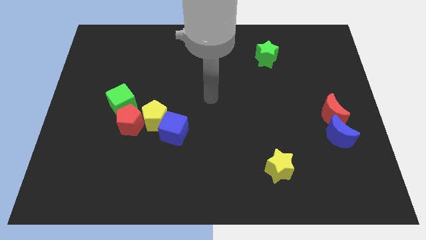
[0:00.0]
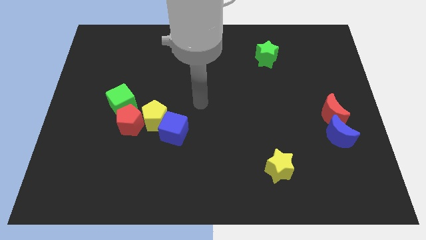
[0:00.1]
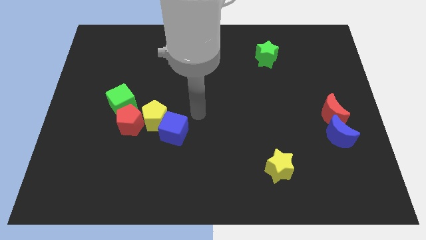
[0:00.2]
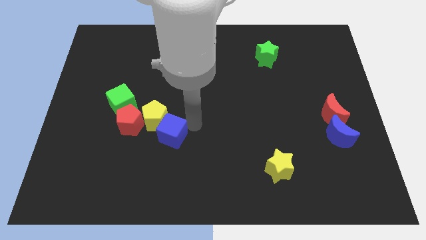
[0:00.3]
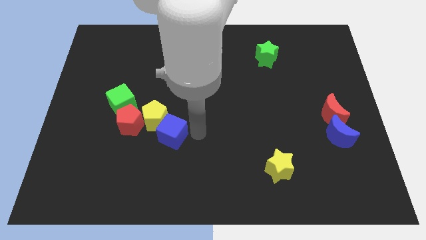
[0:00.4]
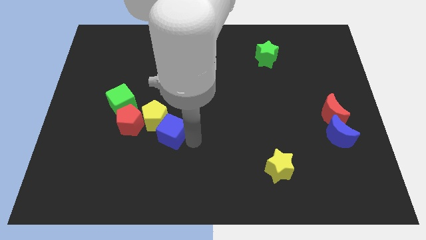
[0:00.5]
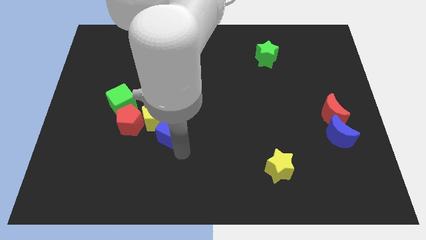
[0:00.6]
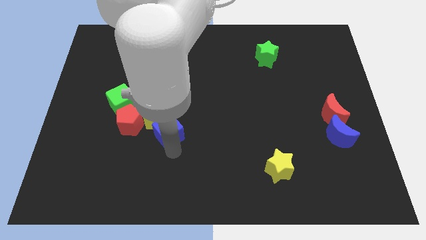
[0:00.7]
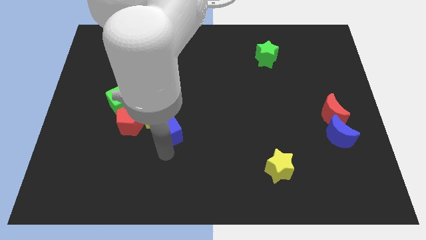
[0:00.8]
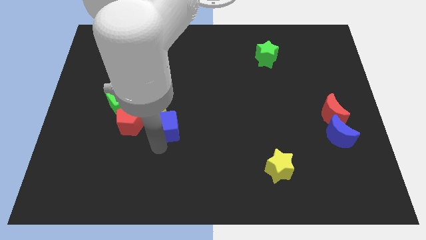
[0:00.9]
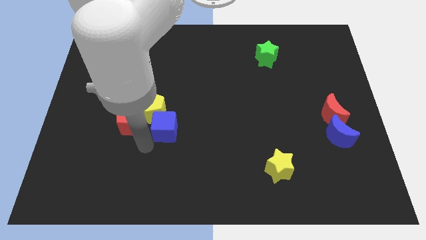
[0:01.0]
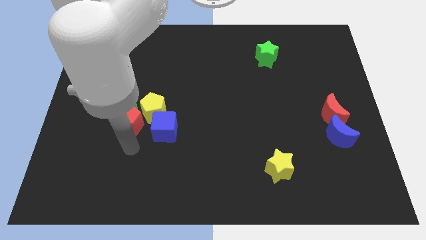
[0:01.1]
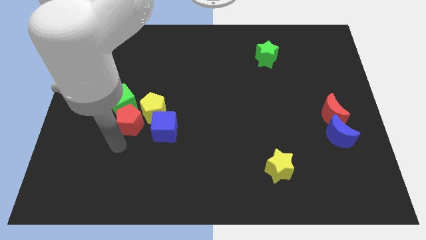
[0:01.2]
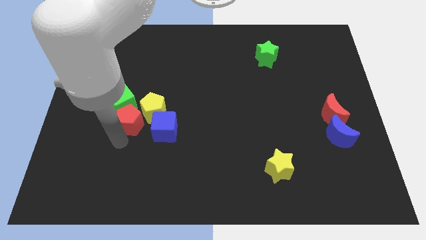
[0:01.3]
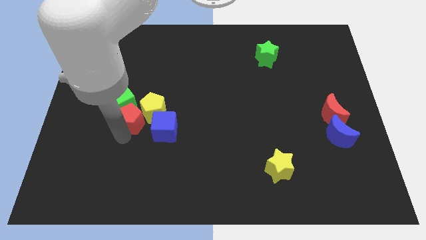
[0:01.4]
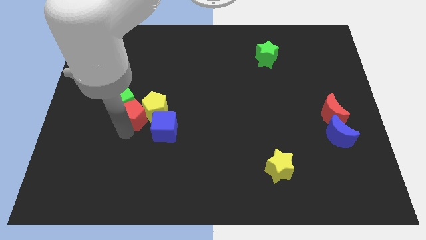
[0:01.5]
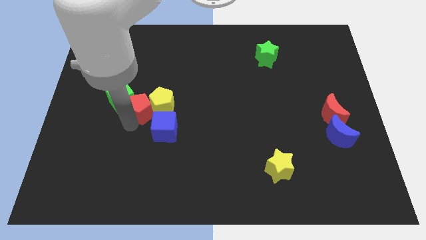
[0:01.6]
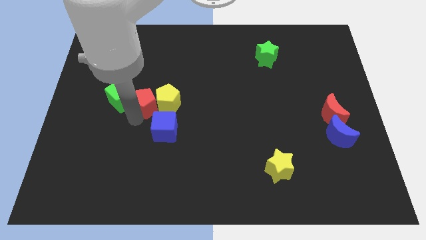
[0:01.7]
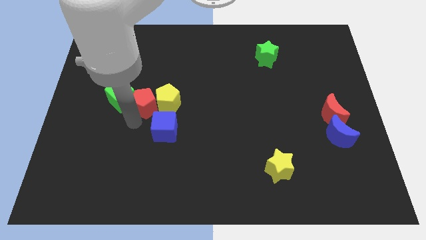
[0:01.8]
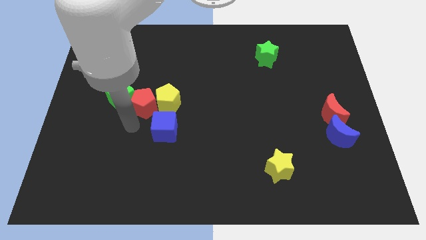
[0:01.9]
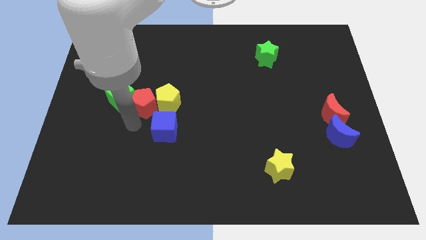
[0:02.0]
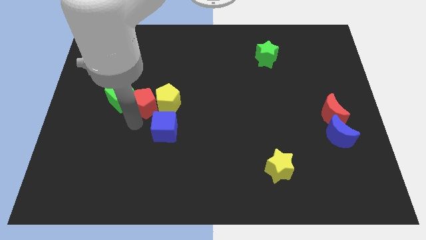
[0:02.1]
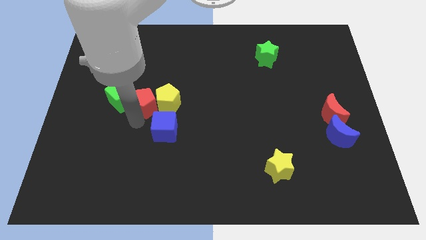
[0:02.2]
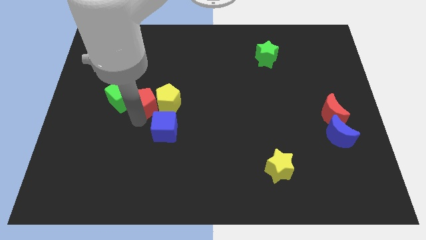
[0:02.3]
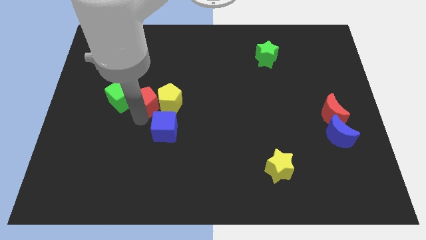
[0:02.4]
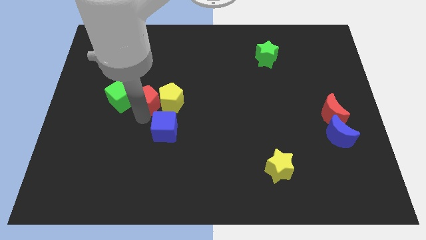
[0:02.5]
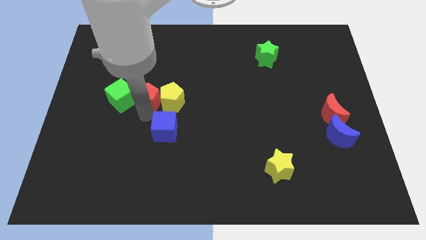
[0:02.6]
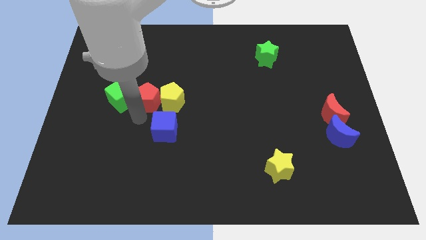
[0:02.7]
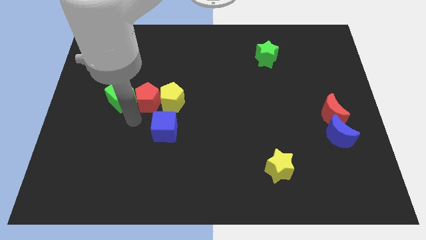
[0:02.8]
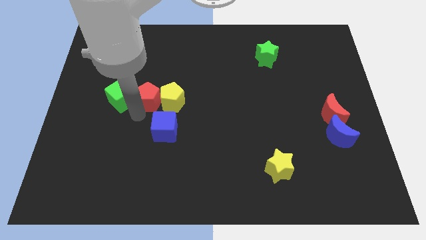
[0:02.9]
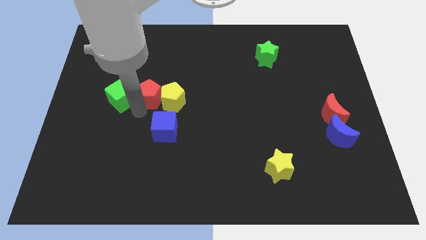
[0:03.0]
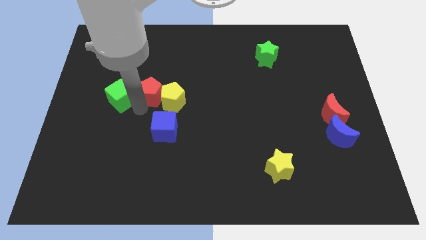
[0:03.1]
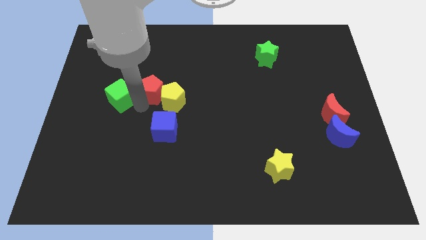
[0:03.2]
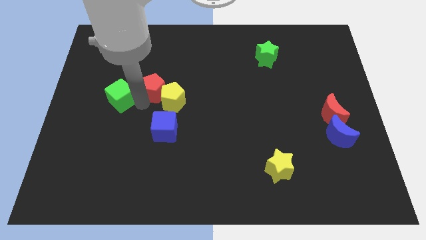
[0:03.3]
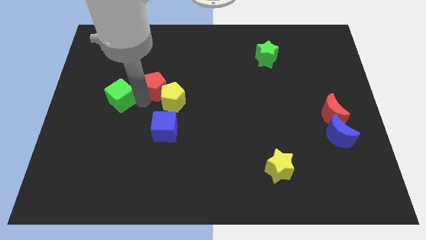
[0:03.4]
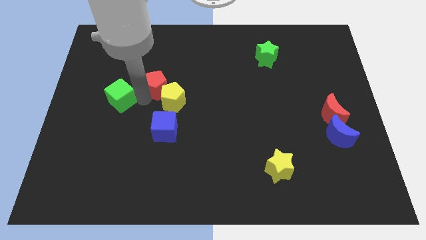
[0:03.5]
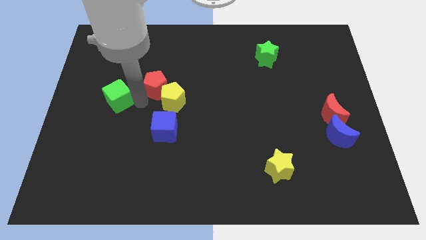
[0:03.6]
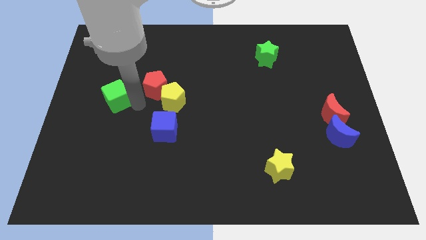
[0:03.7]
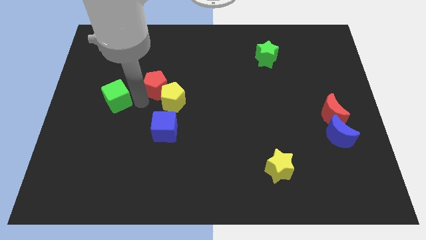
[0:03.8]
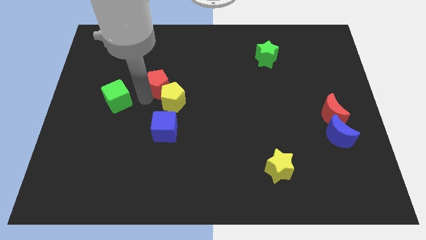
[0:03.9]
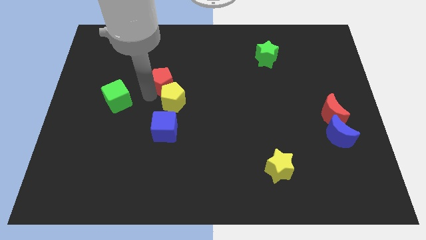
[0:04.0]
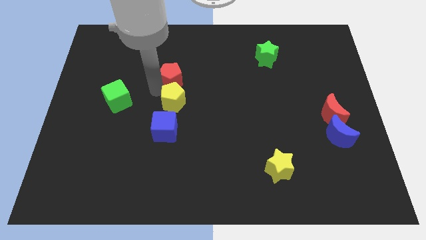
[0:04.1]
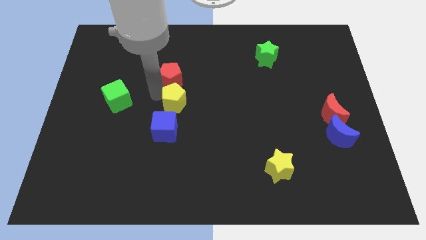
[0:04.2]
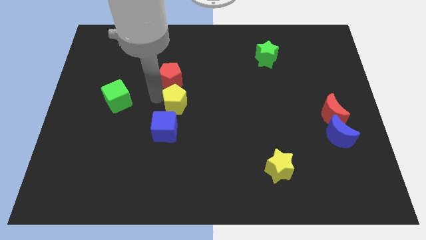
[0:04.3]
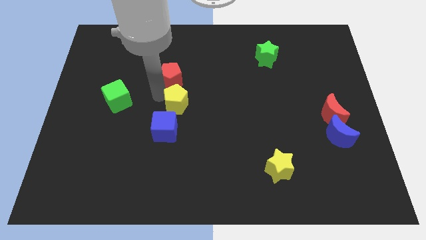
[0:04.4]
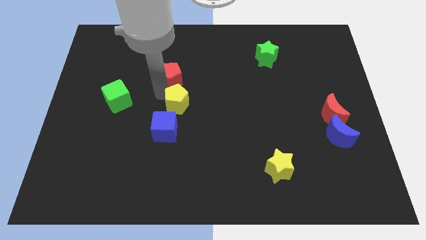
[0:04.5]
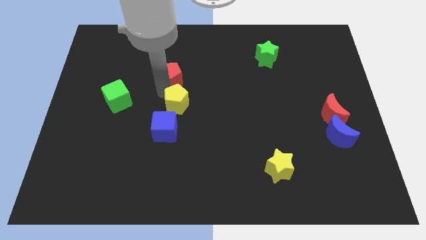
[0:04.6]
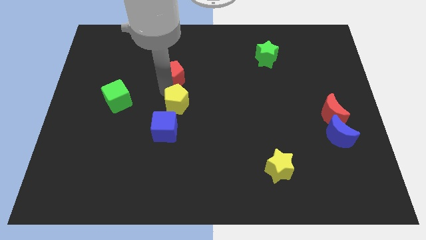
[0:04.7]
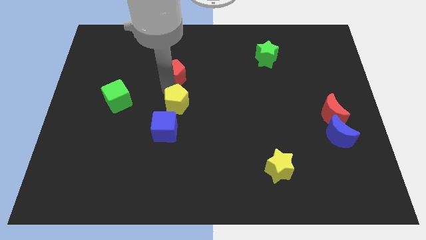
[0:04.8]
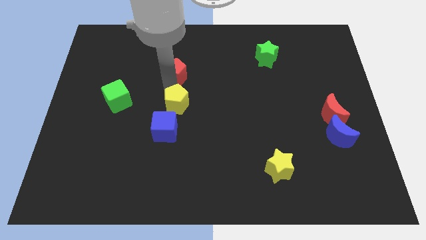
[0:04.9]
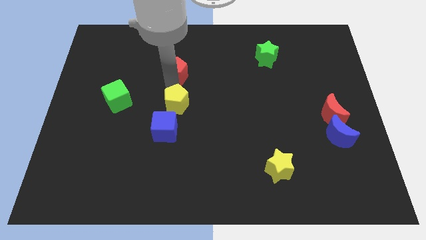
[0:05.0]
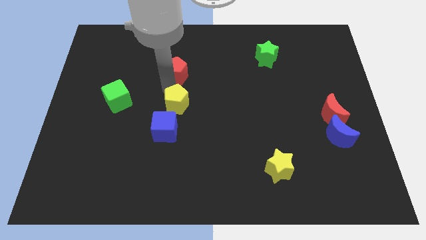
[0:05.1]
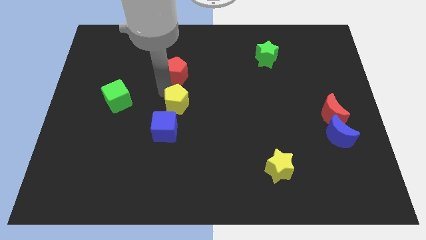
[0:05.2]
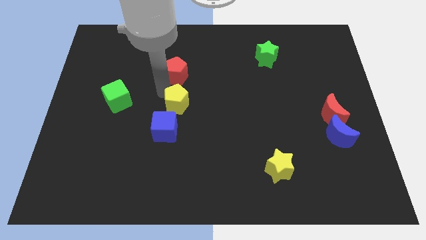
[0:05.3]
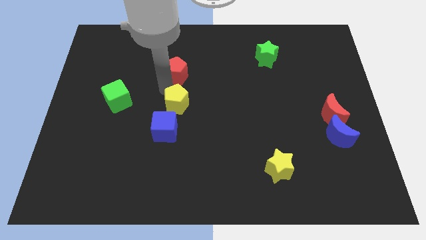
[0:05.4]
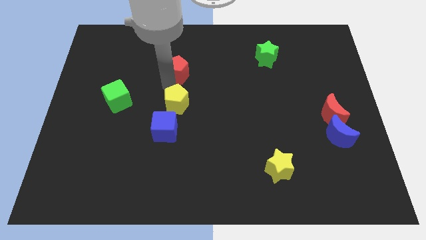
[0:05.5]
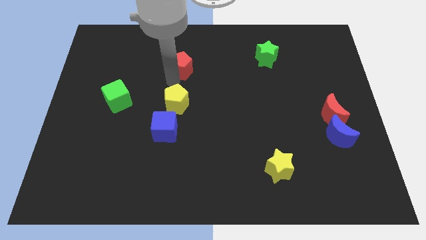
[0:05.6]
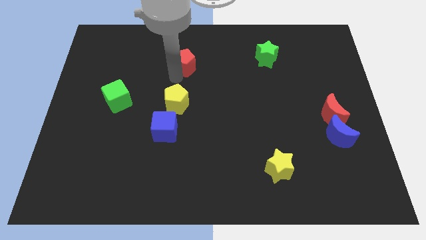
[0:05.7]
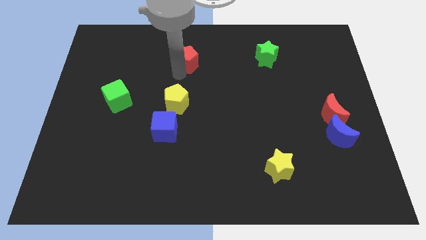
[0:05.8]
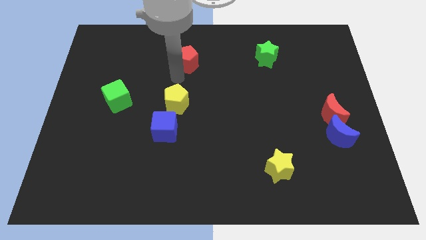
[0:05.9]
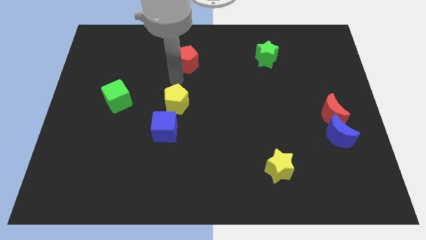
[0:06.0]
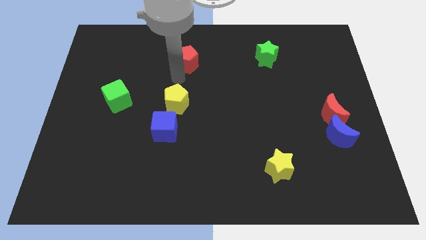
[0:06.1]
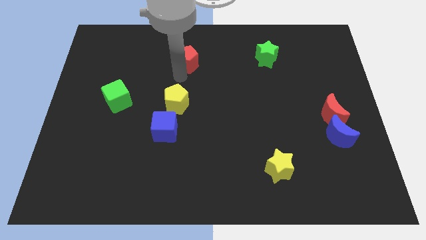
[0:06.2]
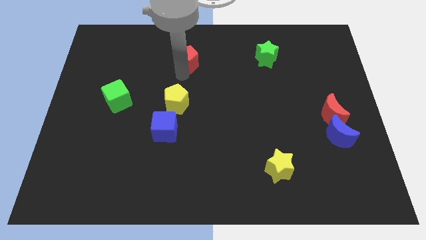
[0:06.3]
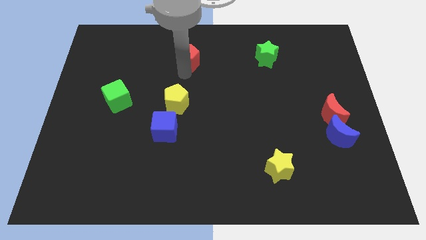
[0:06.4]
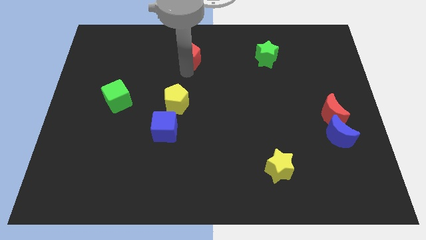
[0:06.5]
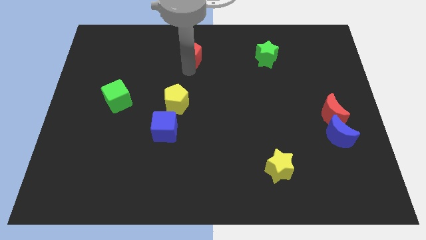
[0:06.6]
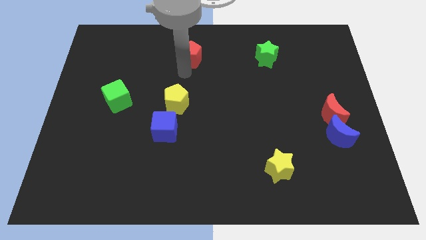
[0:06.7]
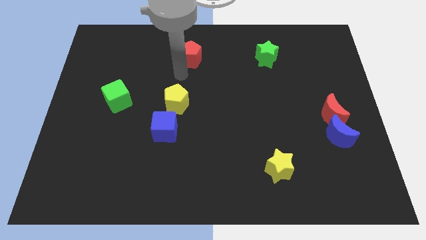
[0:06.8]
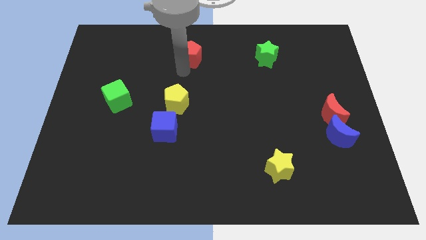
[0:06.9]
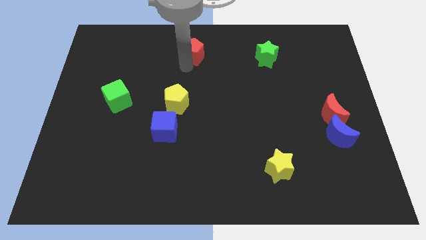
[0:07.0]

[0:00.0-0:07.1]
move the red pentagon to the towards your base
